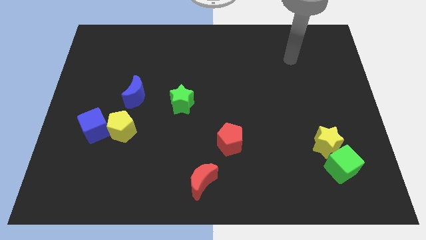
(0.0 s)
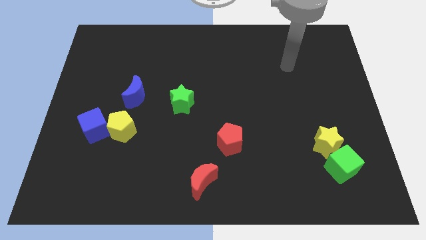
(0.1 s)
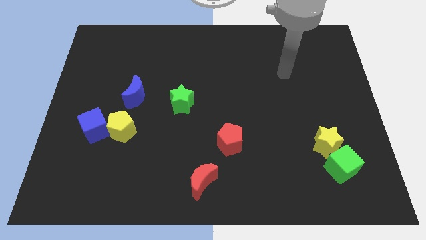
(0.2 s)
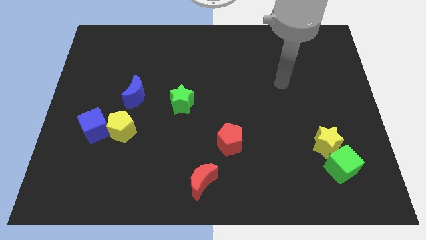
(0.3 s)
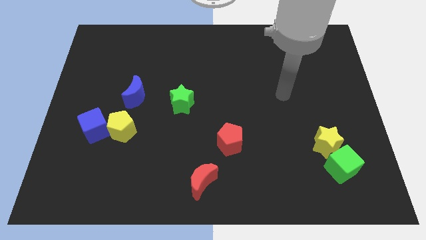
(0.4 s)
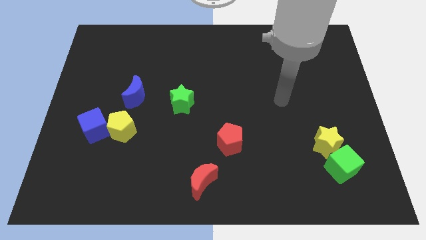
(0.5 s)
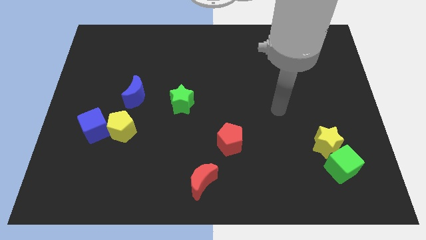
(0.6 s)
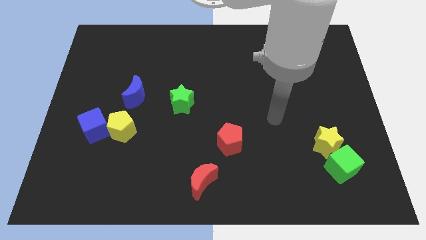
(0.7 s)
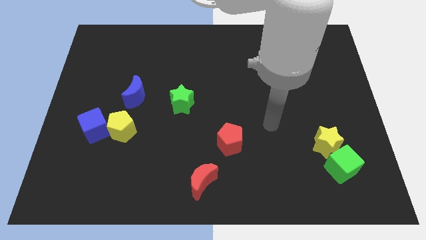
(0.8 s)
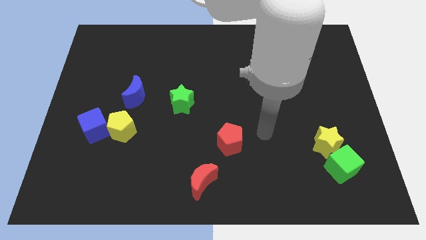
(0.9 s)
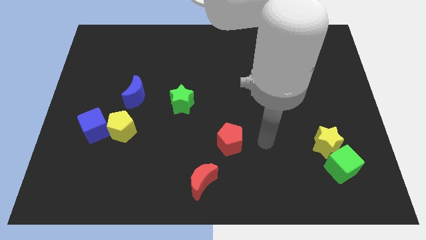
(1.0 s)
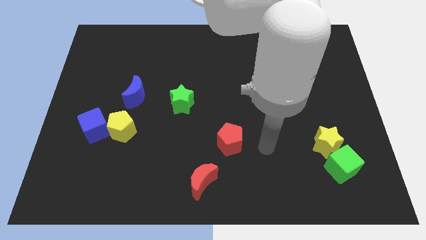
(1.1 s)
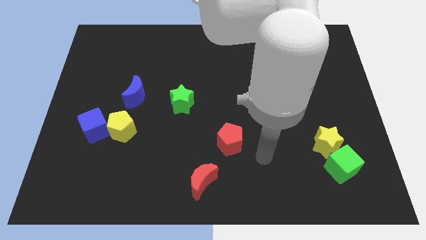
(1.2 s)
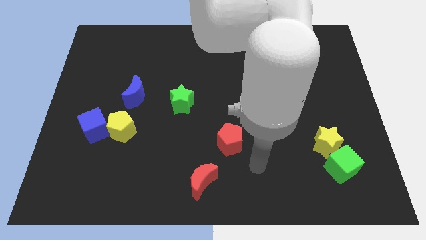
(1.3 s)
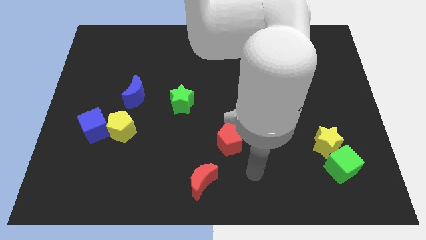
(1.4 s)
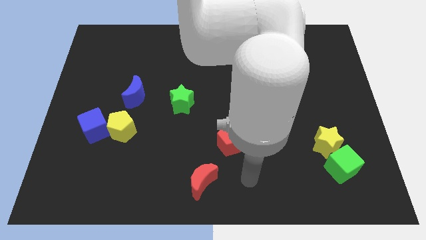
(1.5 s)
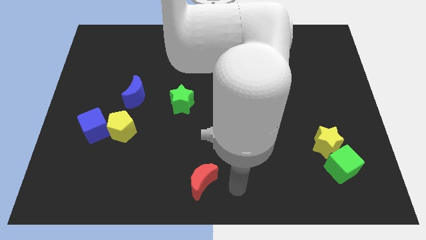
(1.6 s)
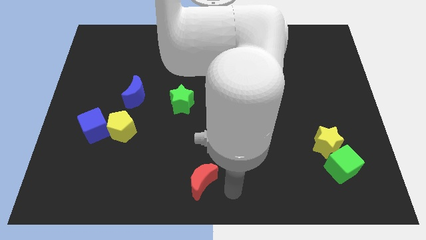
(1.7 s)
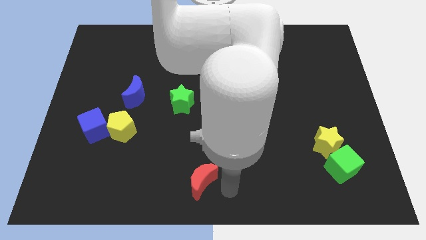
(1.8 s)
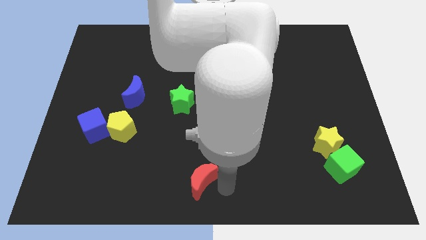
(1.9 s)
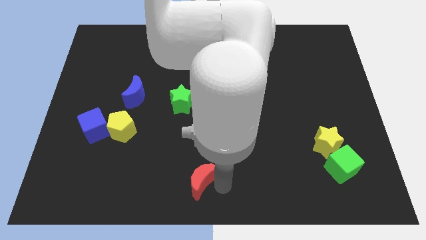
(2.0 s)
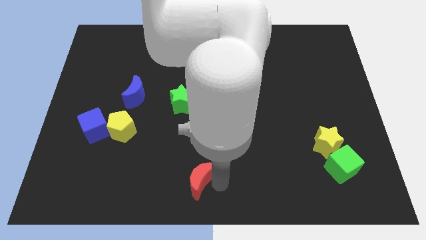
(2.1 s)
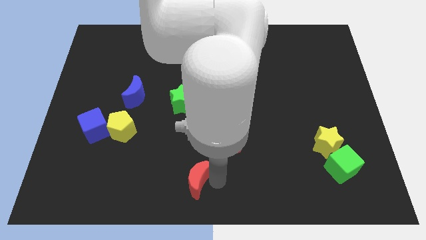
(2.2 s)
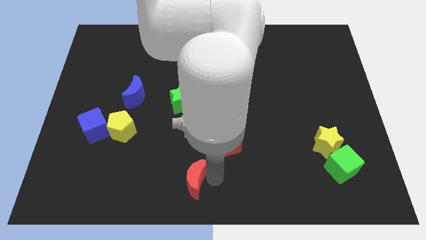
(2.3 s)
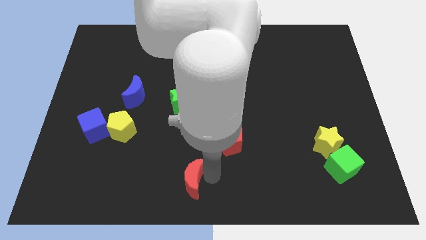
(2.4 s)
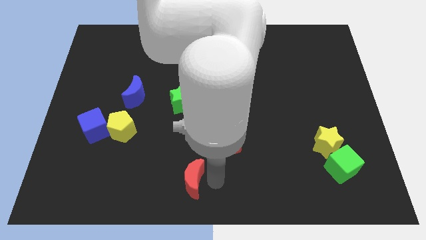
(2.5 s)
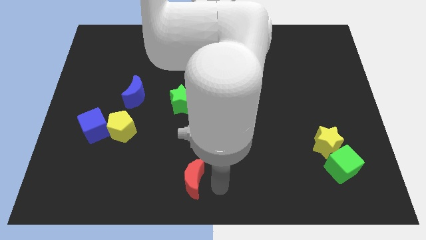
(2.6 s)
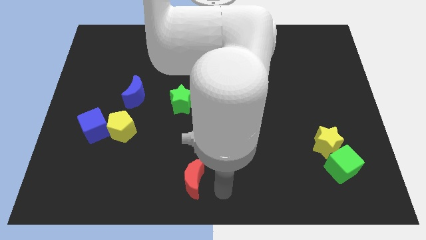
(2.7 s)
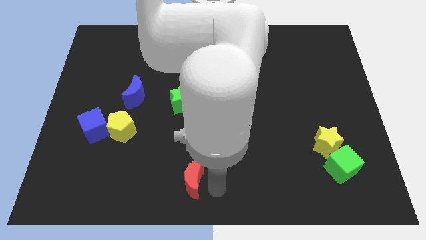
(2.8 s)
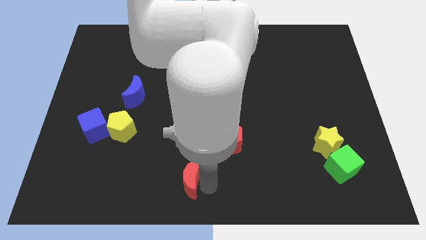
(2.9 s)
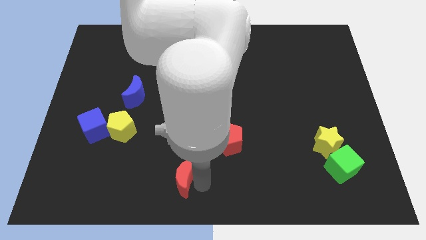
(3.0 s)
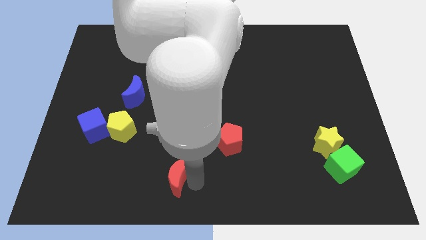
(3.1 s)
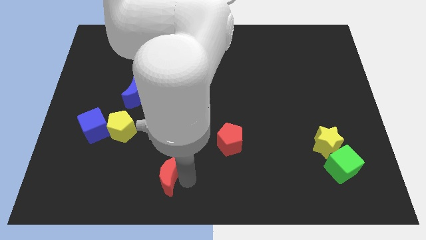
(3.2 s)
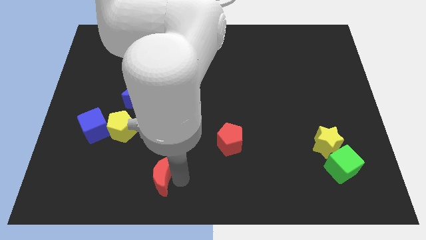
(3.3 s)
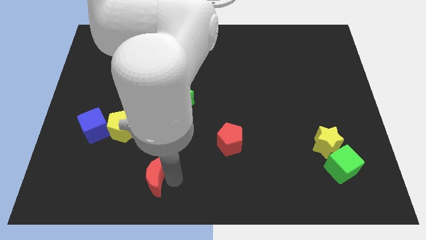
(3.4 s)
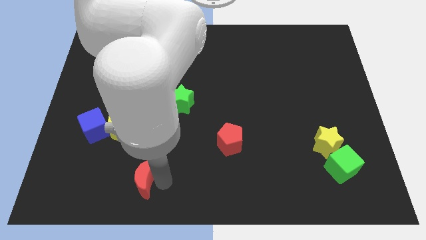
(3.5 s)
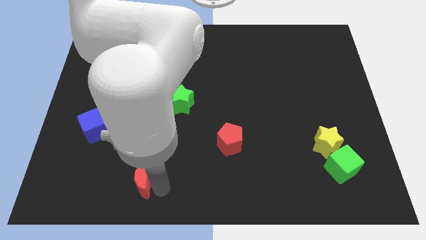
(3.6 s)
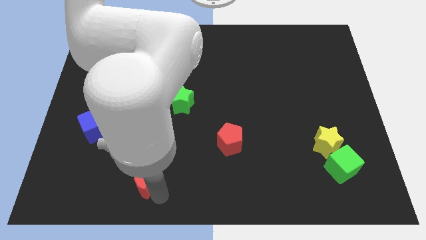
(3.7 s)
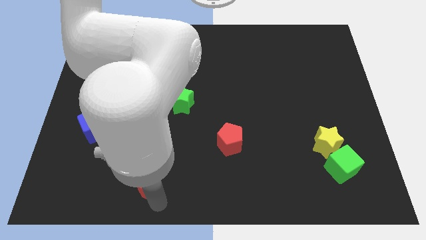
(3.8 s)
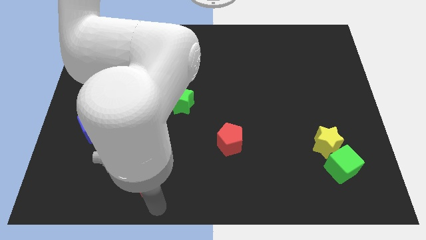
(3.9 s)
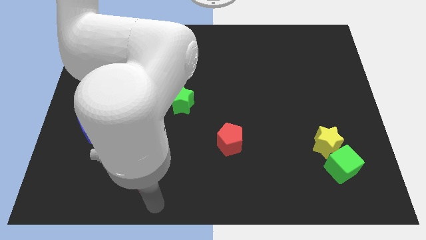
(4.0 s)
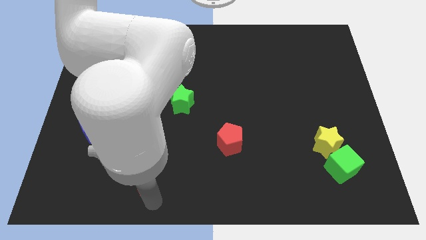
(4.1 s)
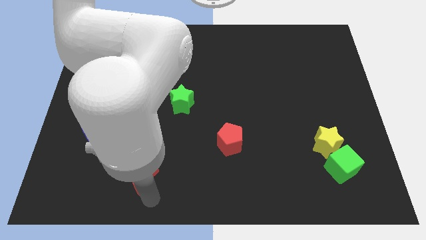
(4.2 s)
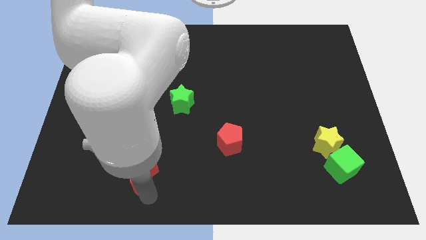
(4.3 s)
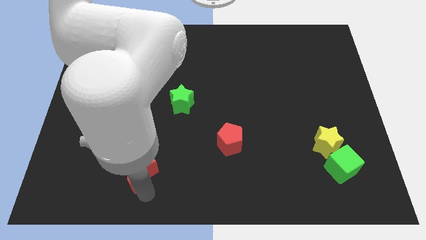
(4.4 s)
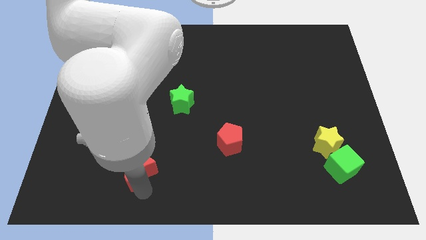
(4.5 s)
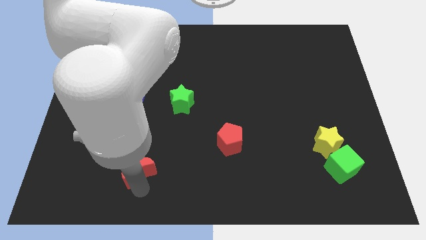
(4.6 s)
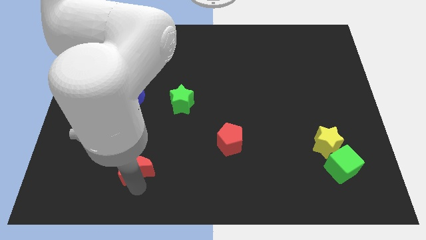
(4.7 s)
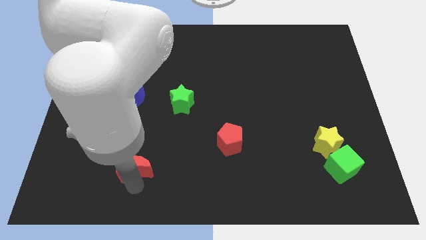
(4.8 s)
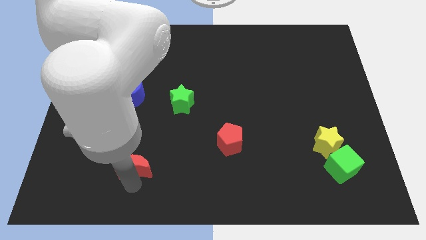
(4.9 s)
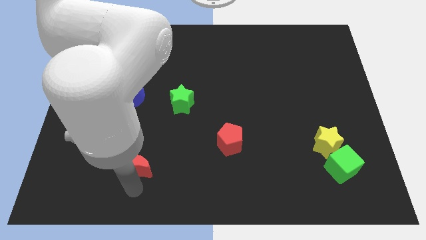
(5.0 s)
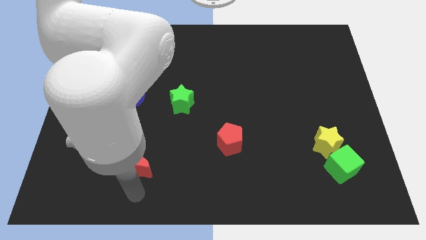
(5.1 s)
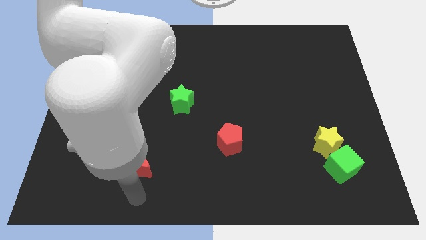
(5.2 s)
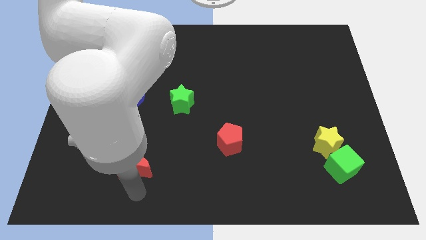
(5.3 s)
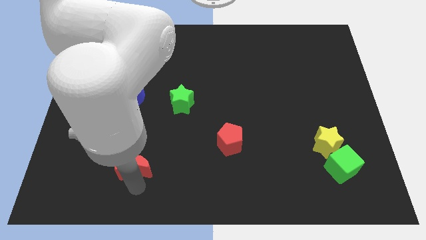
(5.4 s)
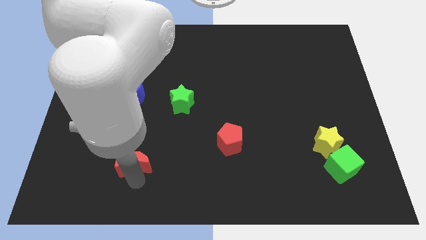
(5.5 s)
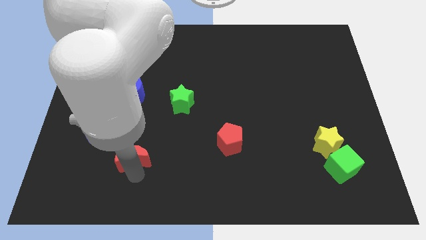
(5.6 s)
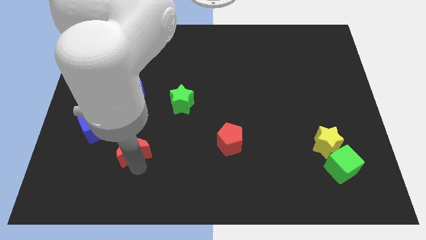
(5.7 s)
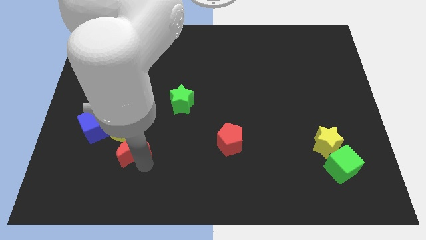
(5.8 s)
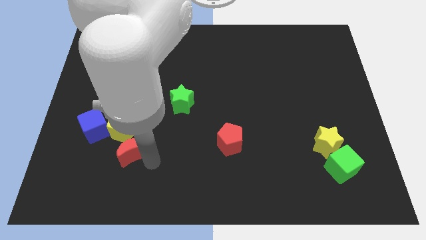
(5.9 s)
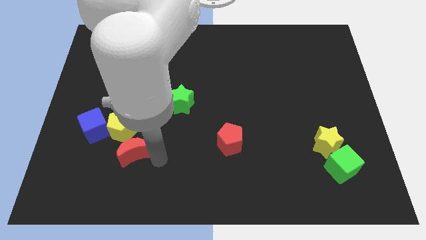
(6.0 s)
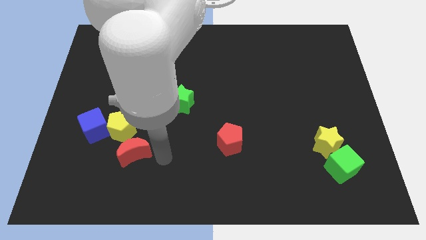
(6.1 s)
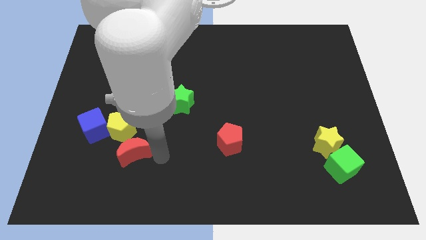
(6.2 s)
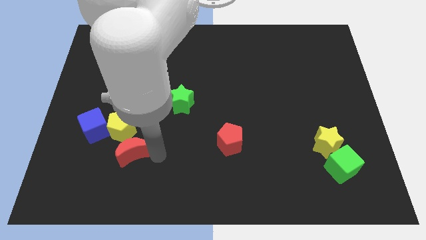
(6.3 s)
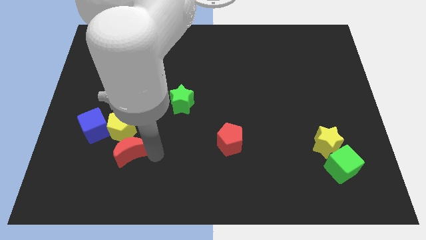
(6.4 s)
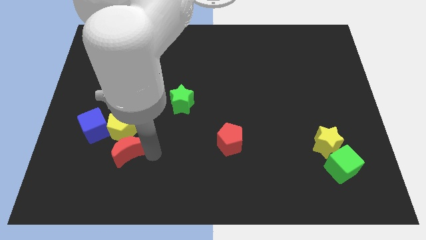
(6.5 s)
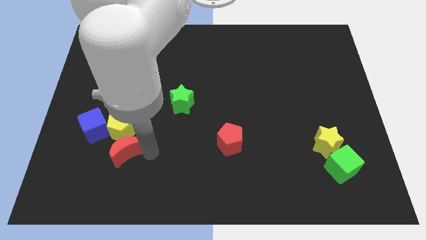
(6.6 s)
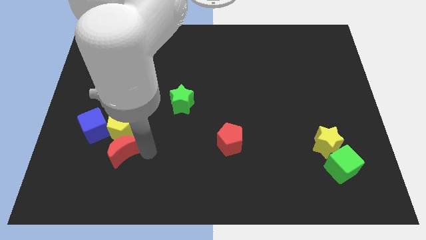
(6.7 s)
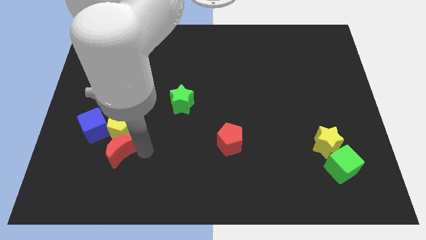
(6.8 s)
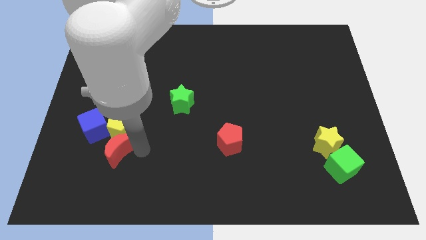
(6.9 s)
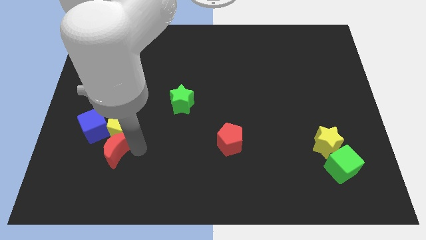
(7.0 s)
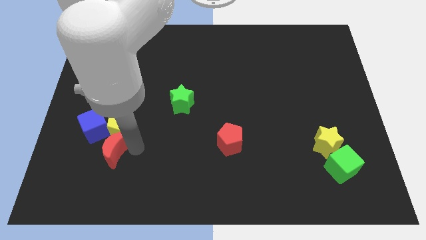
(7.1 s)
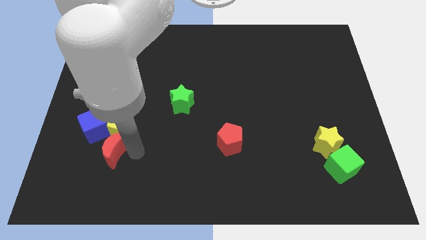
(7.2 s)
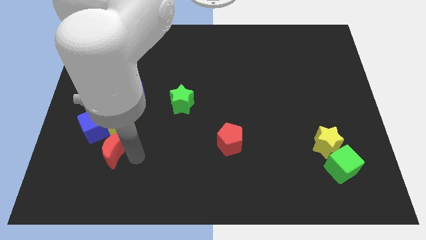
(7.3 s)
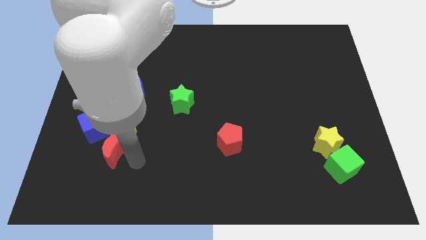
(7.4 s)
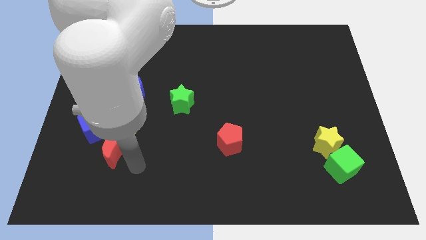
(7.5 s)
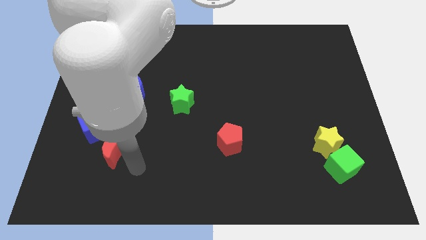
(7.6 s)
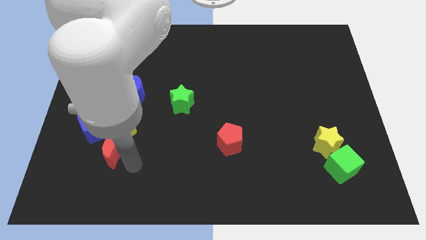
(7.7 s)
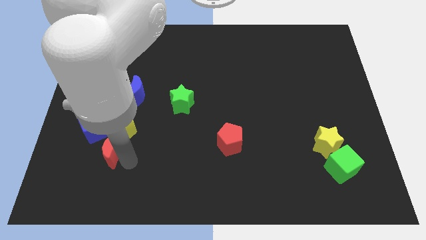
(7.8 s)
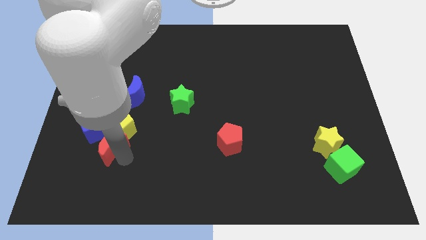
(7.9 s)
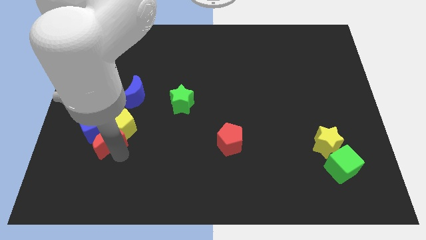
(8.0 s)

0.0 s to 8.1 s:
move the red moon to the blue cube
